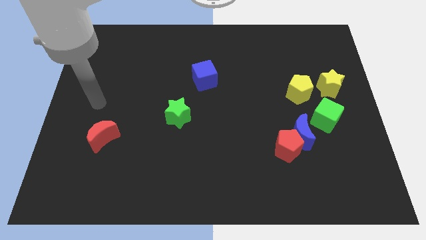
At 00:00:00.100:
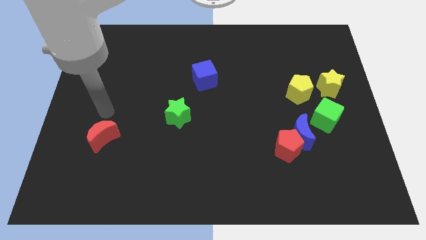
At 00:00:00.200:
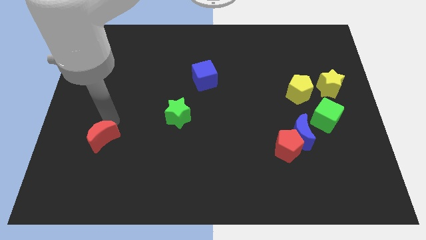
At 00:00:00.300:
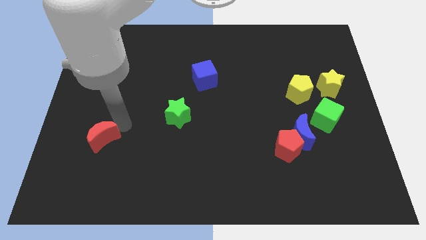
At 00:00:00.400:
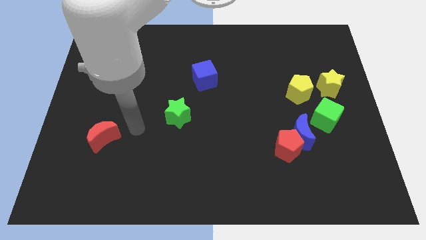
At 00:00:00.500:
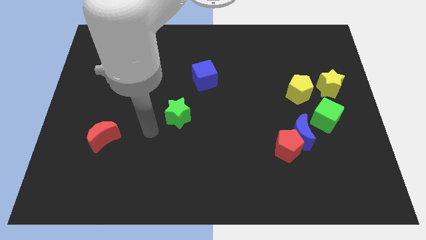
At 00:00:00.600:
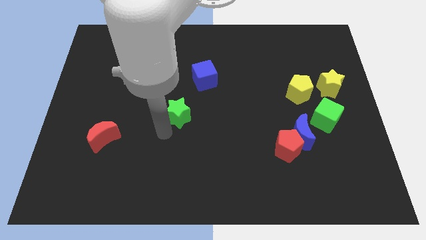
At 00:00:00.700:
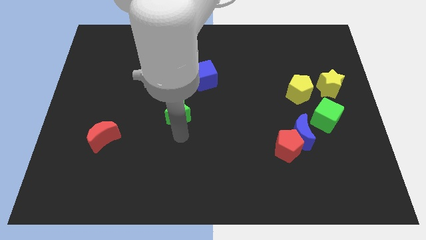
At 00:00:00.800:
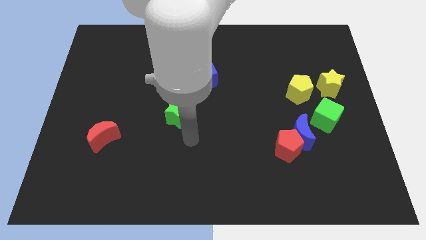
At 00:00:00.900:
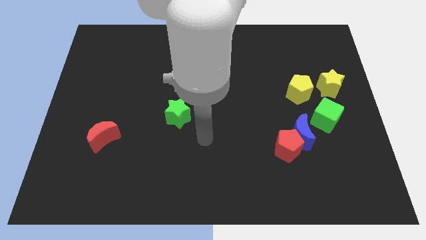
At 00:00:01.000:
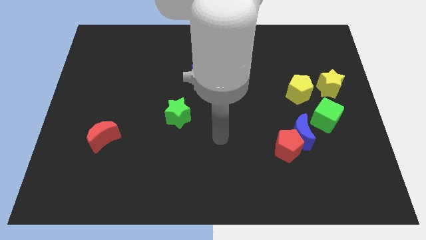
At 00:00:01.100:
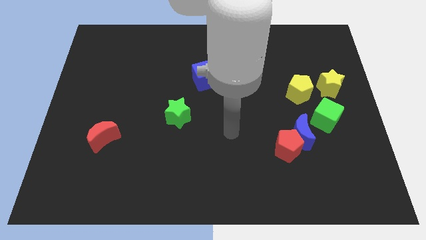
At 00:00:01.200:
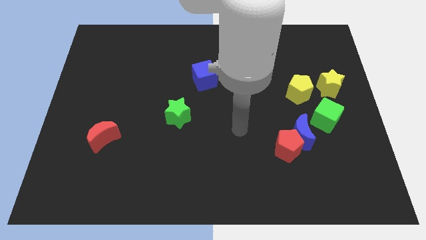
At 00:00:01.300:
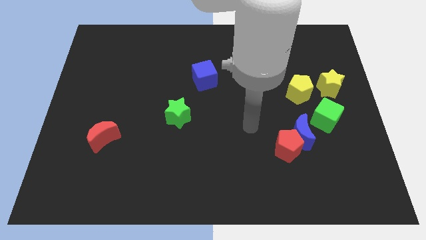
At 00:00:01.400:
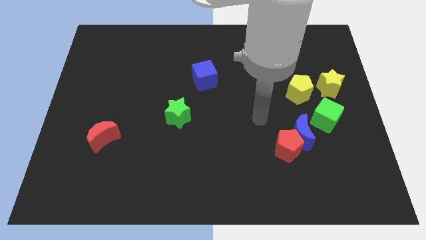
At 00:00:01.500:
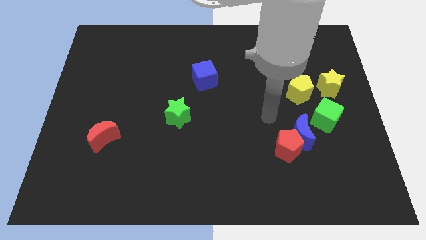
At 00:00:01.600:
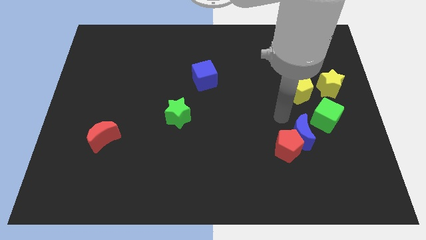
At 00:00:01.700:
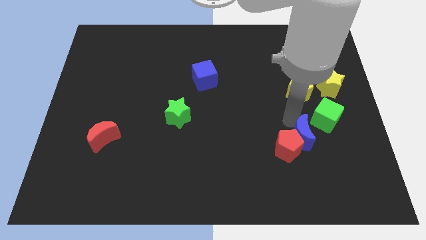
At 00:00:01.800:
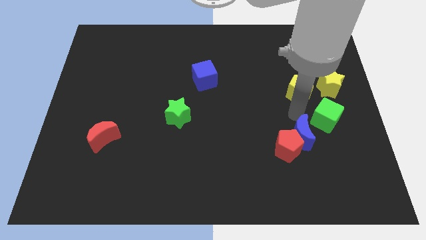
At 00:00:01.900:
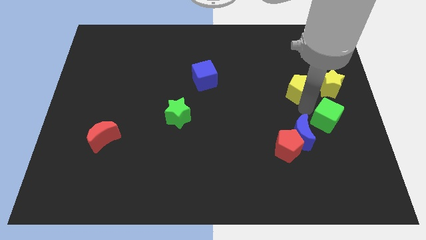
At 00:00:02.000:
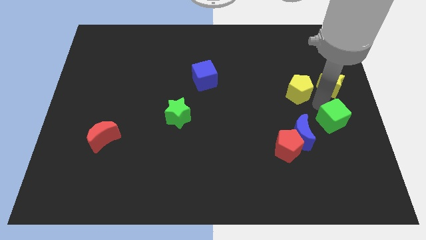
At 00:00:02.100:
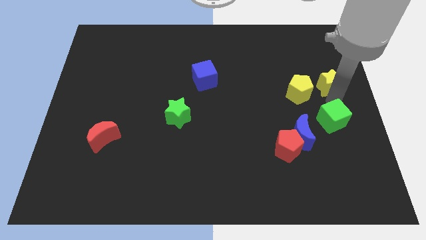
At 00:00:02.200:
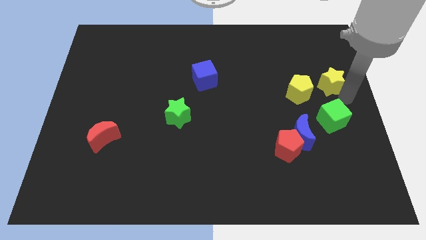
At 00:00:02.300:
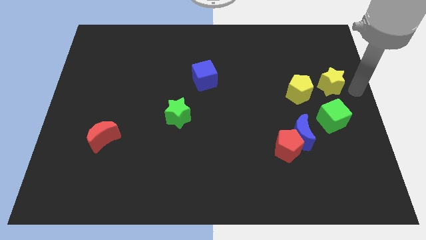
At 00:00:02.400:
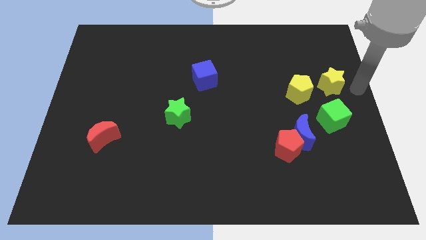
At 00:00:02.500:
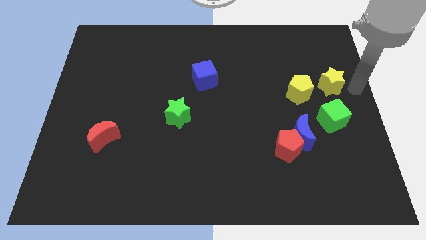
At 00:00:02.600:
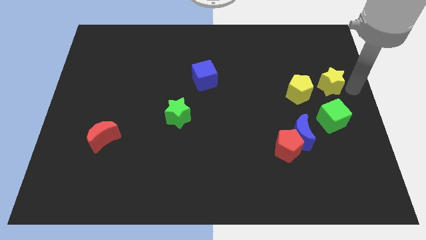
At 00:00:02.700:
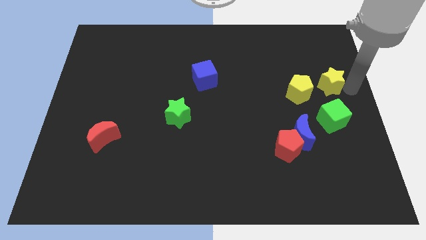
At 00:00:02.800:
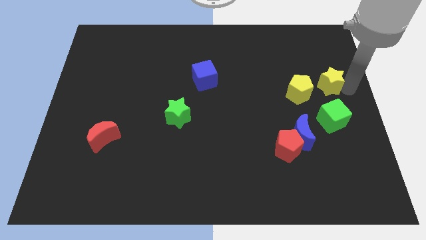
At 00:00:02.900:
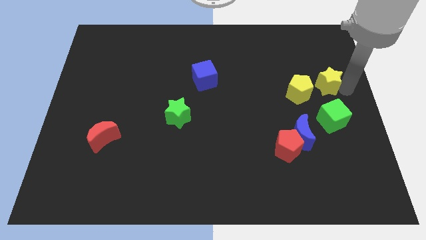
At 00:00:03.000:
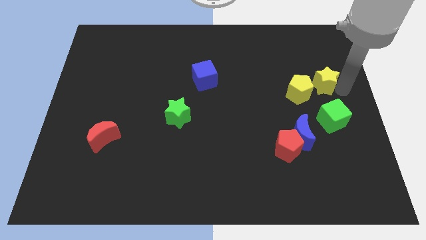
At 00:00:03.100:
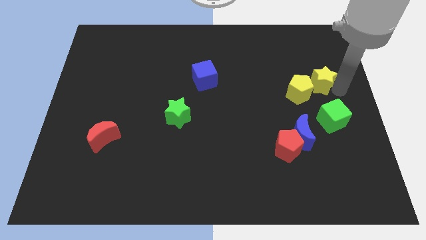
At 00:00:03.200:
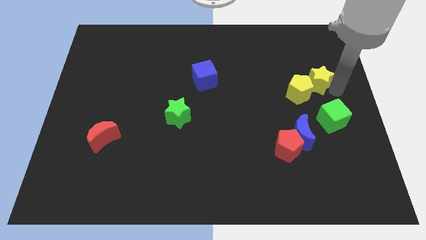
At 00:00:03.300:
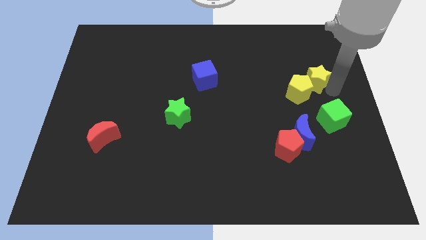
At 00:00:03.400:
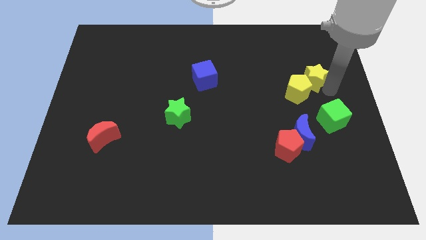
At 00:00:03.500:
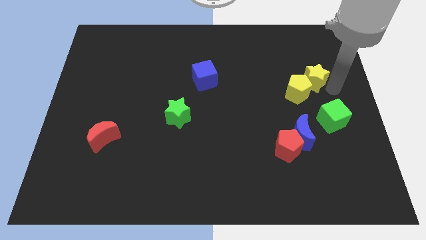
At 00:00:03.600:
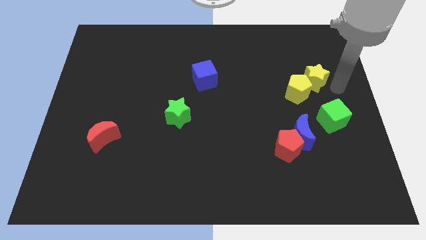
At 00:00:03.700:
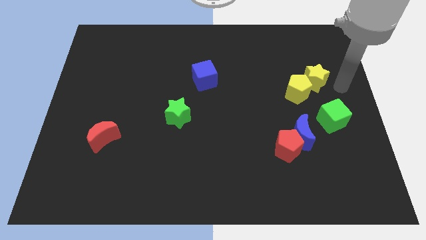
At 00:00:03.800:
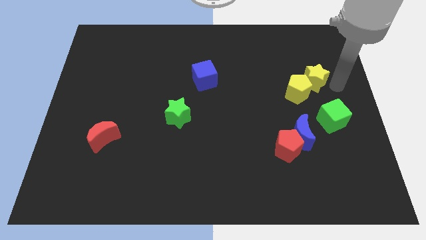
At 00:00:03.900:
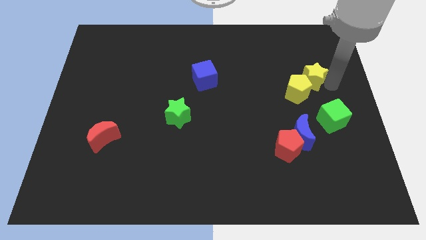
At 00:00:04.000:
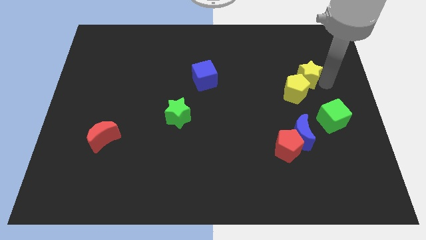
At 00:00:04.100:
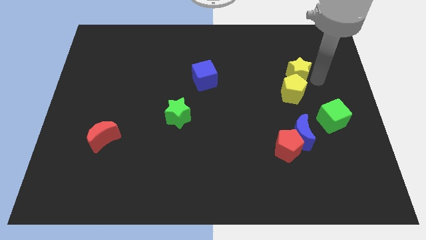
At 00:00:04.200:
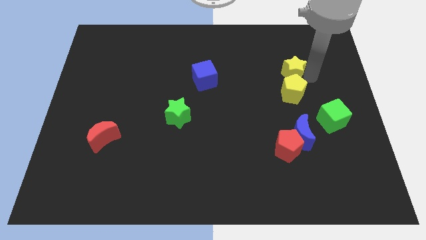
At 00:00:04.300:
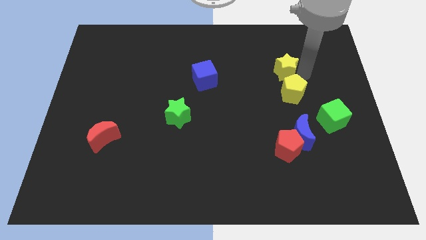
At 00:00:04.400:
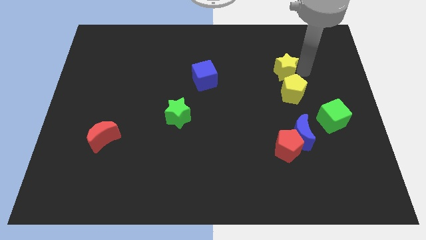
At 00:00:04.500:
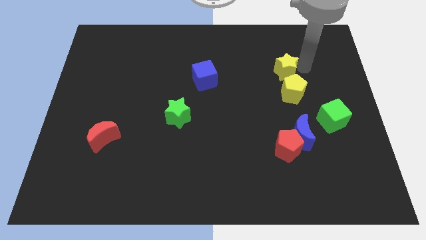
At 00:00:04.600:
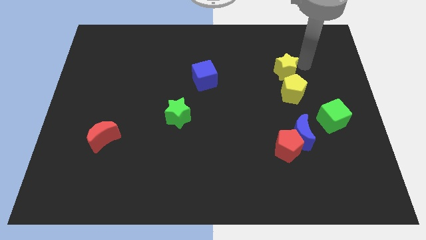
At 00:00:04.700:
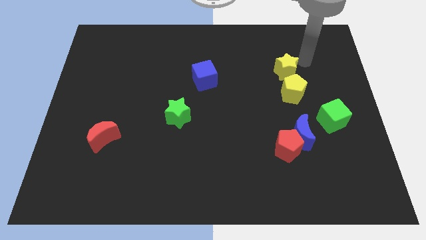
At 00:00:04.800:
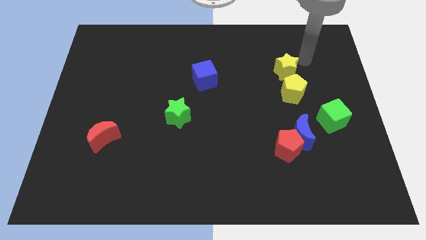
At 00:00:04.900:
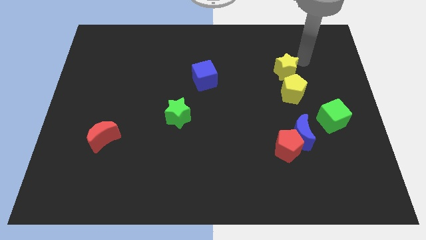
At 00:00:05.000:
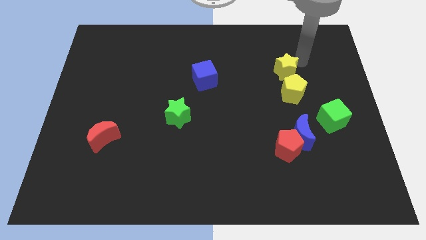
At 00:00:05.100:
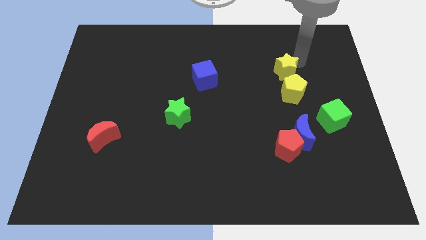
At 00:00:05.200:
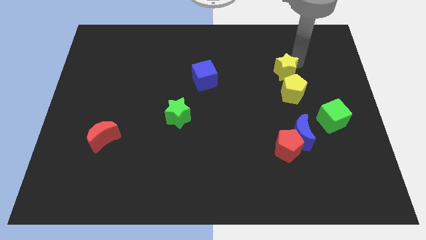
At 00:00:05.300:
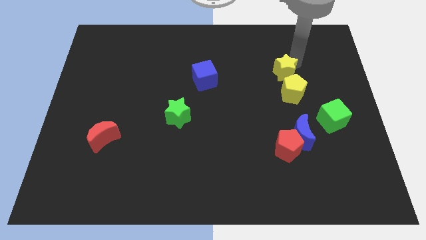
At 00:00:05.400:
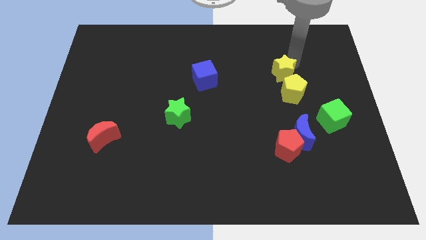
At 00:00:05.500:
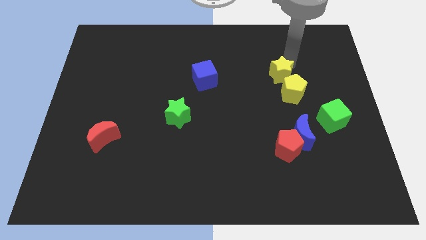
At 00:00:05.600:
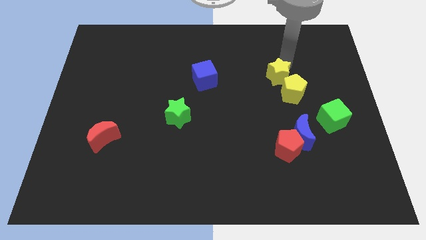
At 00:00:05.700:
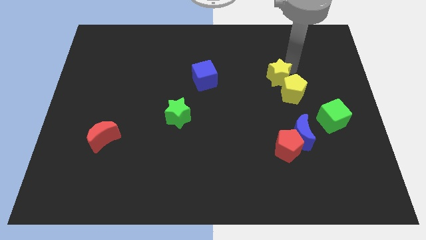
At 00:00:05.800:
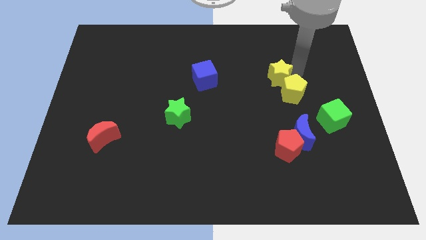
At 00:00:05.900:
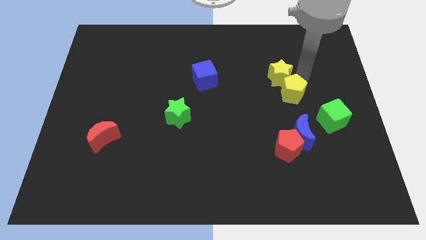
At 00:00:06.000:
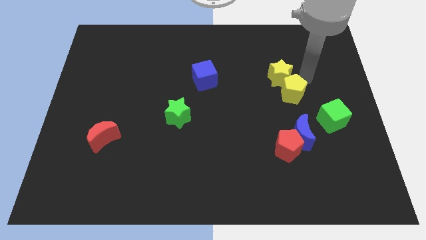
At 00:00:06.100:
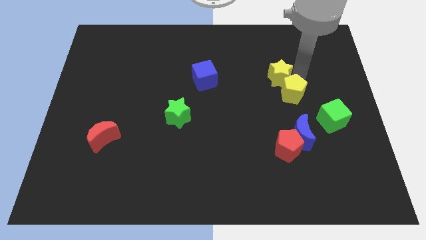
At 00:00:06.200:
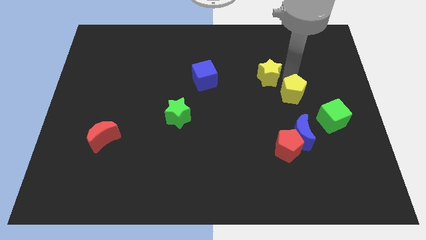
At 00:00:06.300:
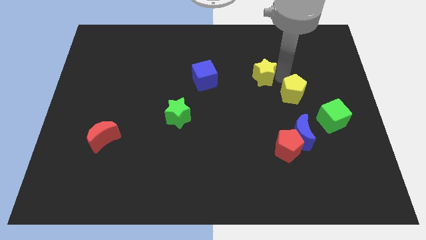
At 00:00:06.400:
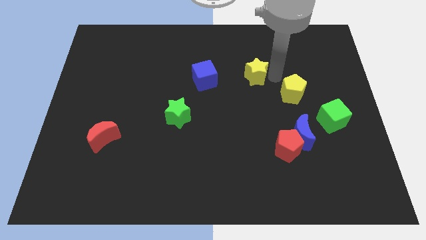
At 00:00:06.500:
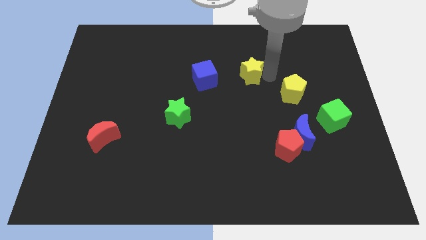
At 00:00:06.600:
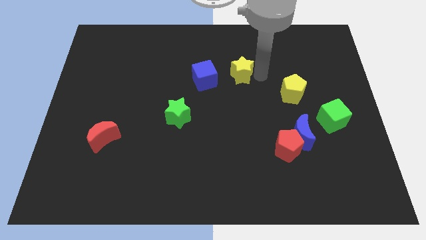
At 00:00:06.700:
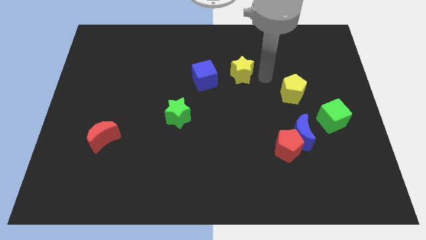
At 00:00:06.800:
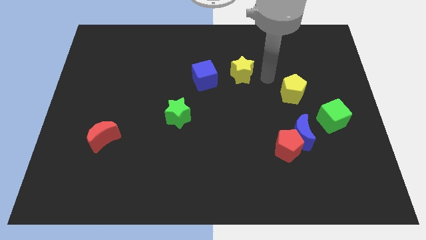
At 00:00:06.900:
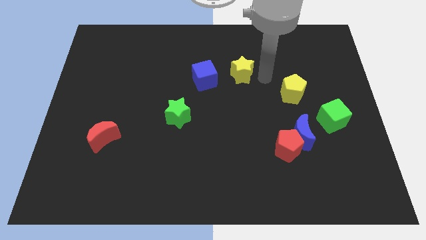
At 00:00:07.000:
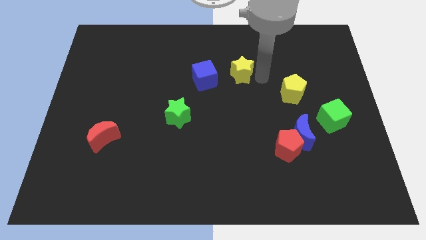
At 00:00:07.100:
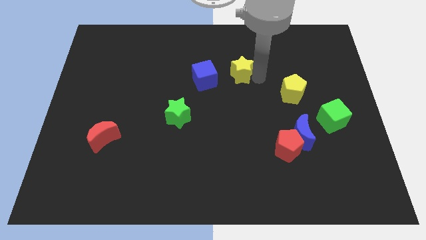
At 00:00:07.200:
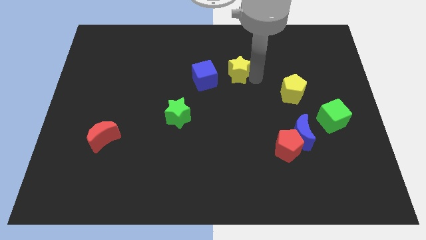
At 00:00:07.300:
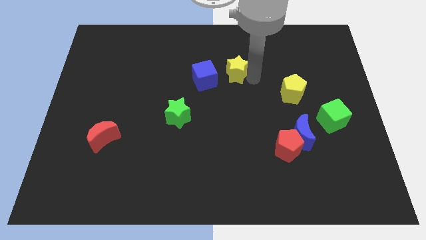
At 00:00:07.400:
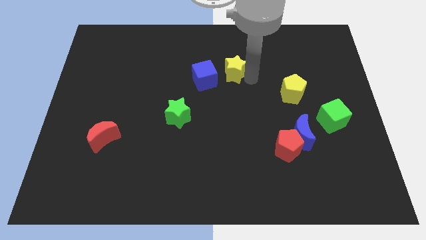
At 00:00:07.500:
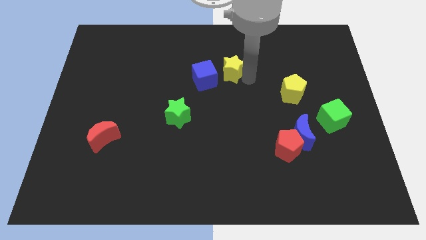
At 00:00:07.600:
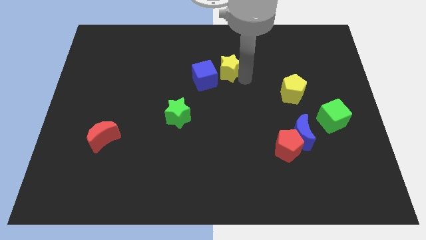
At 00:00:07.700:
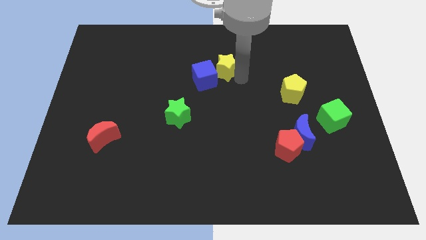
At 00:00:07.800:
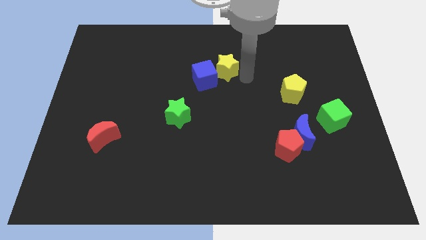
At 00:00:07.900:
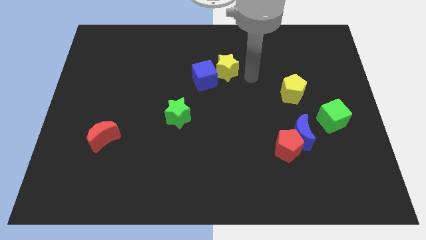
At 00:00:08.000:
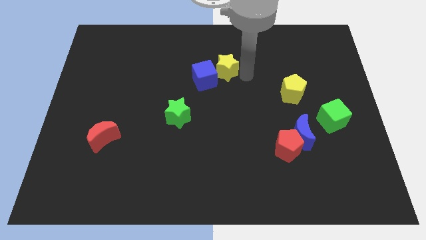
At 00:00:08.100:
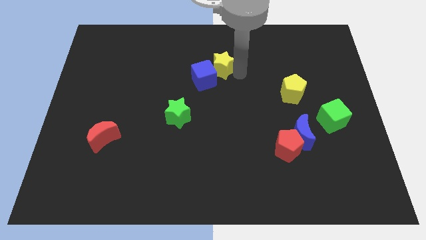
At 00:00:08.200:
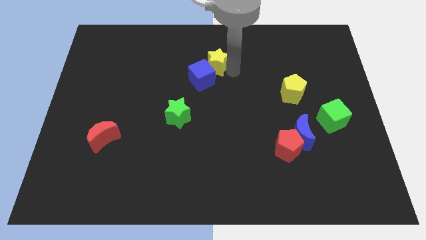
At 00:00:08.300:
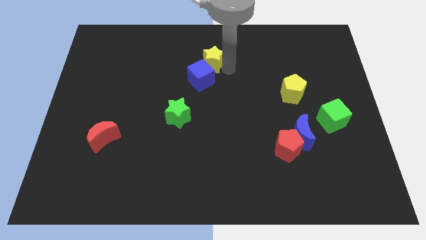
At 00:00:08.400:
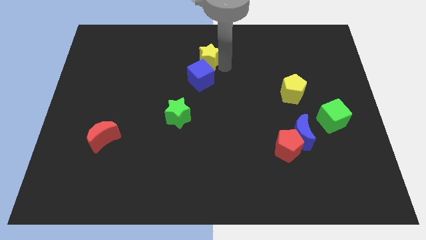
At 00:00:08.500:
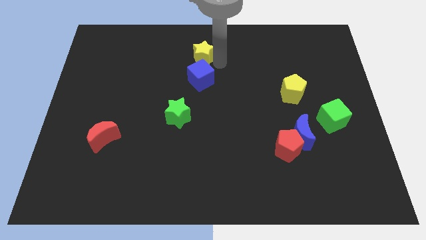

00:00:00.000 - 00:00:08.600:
push the yellow star to the towards your base
